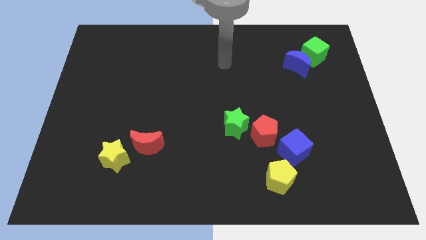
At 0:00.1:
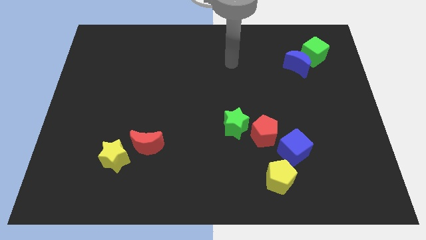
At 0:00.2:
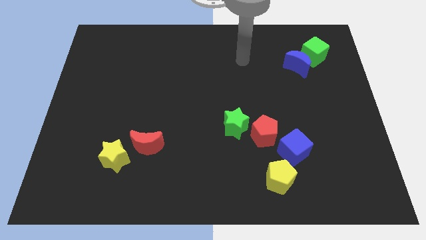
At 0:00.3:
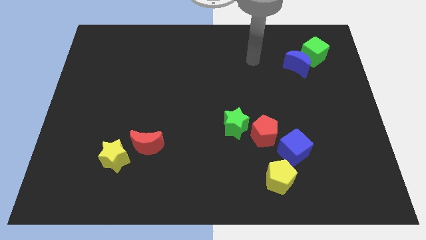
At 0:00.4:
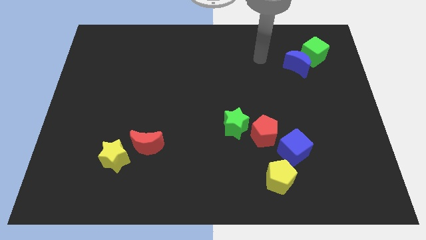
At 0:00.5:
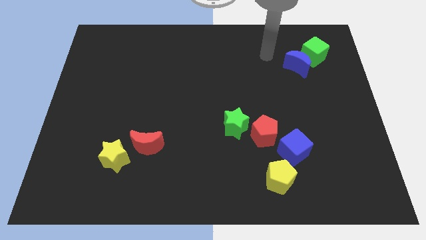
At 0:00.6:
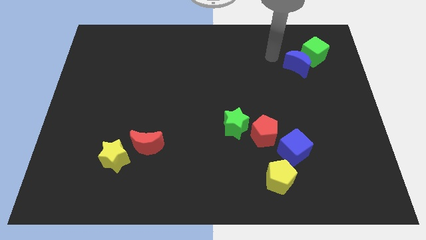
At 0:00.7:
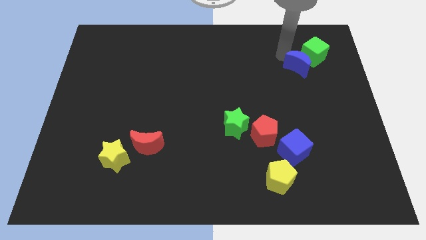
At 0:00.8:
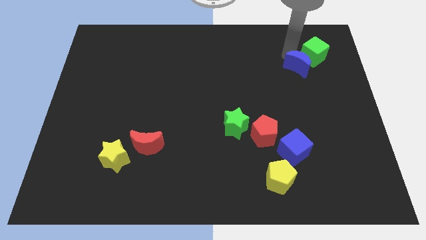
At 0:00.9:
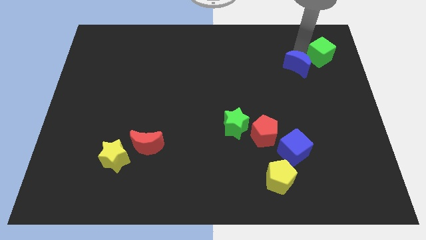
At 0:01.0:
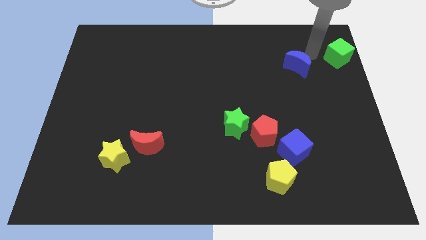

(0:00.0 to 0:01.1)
pull the blue moon apart from the green cube

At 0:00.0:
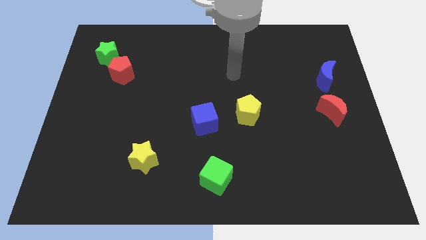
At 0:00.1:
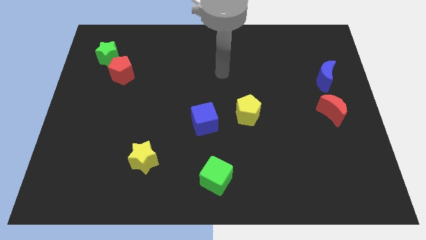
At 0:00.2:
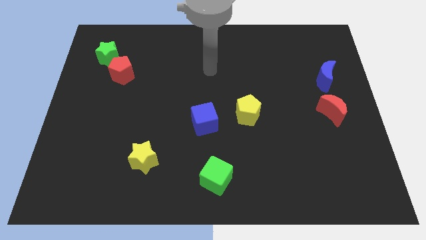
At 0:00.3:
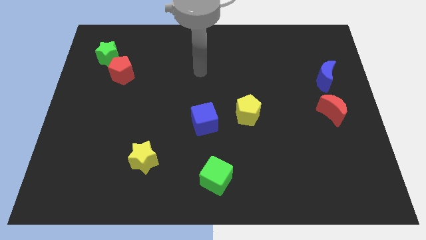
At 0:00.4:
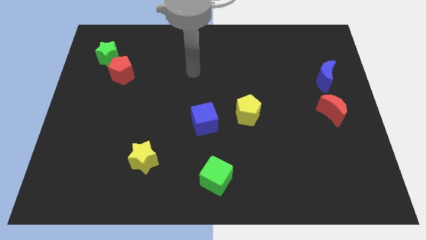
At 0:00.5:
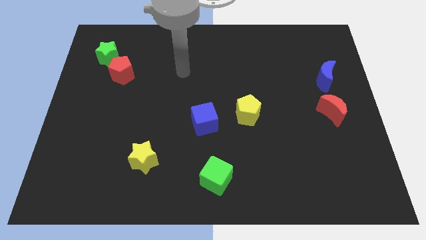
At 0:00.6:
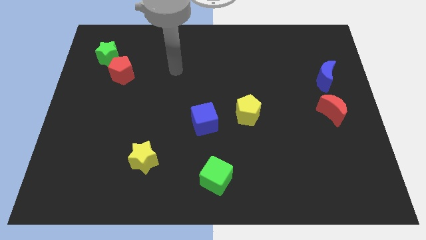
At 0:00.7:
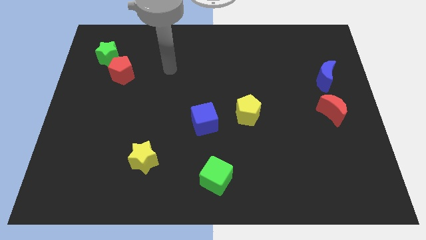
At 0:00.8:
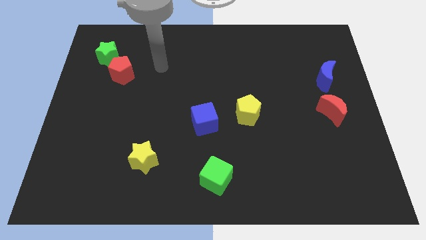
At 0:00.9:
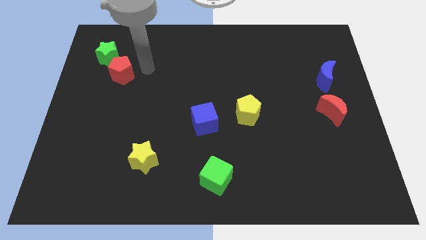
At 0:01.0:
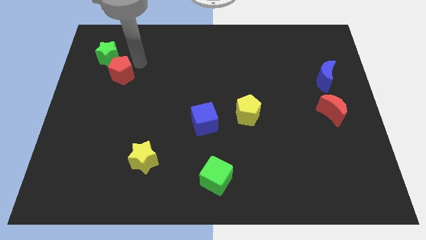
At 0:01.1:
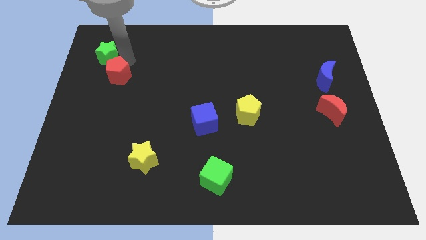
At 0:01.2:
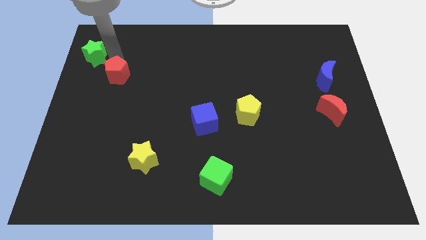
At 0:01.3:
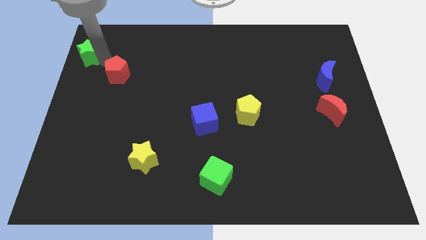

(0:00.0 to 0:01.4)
pull the red pentagon apart from the green star

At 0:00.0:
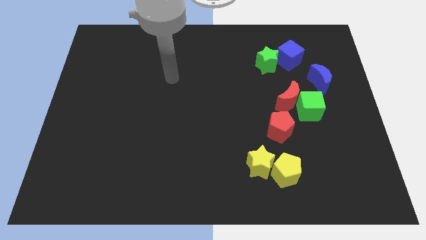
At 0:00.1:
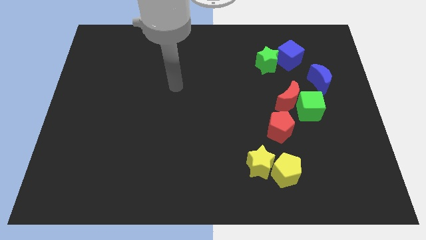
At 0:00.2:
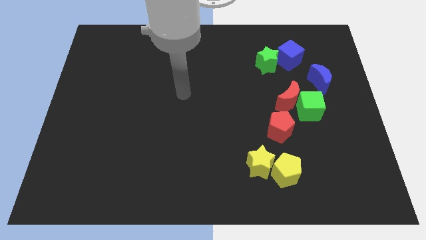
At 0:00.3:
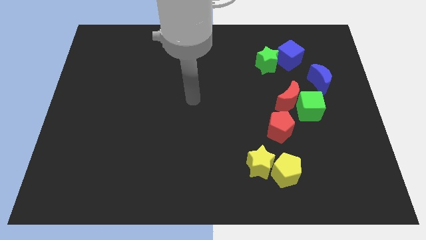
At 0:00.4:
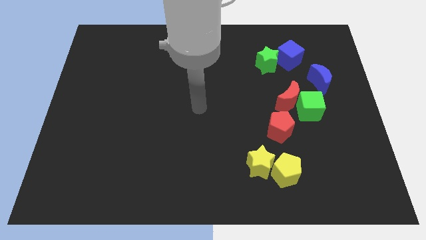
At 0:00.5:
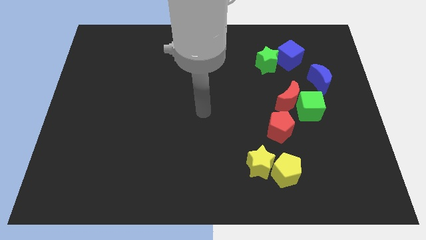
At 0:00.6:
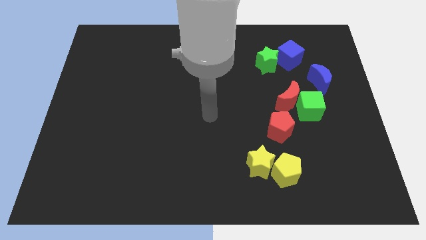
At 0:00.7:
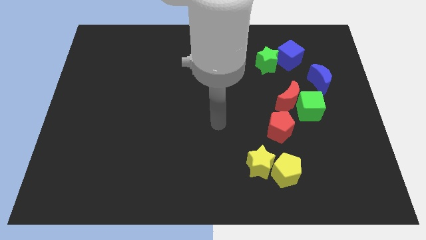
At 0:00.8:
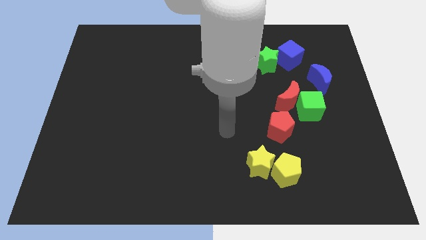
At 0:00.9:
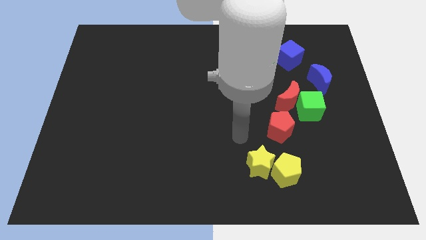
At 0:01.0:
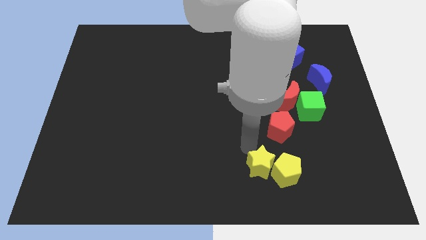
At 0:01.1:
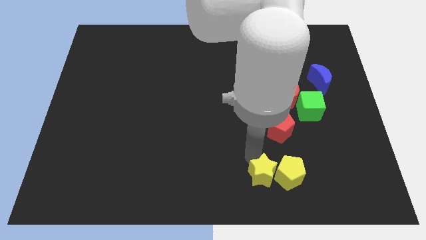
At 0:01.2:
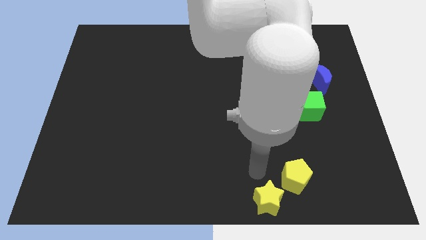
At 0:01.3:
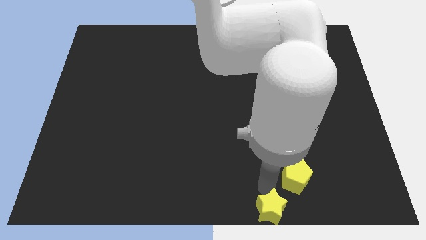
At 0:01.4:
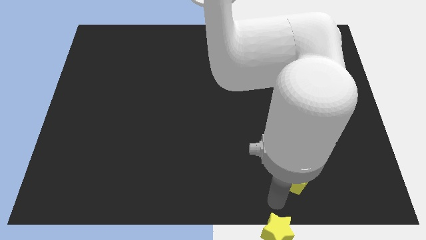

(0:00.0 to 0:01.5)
pull the yellow pentagon apart from the yellow star

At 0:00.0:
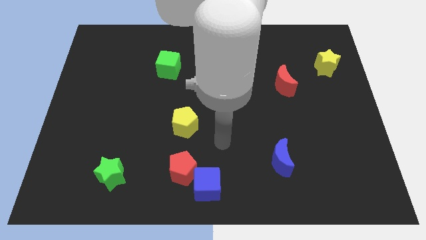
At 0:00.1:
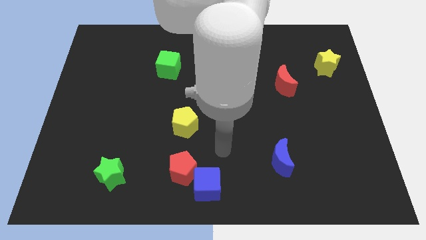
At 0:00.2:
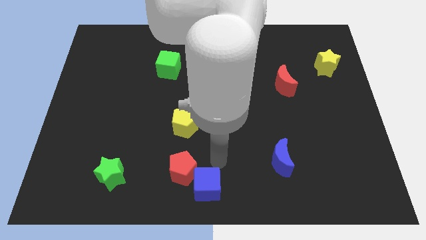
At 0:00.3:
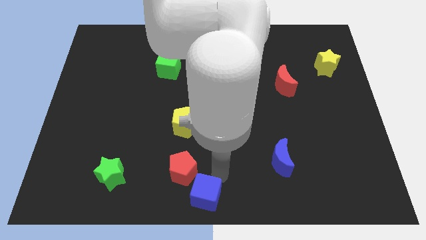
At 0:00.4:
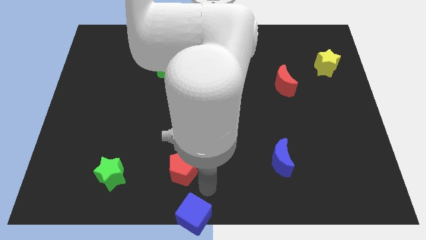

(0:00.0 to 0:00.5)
move the red pentagon away from the blue cube

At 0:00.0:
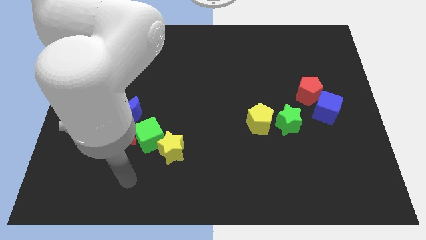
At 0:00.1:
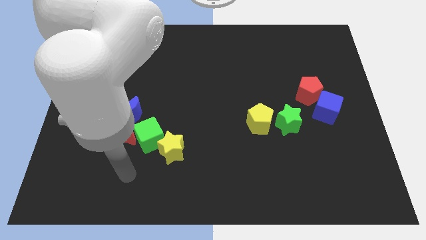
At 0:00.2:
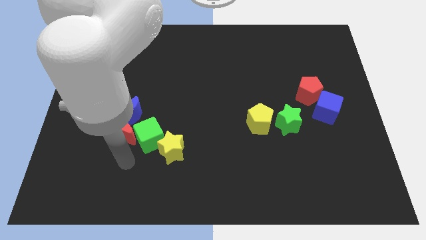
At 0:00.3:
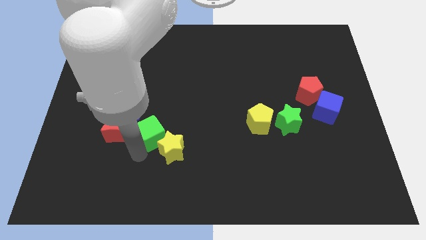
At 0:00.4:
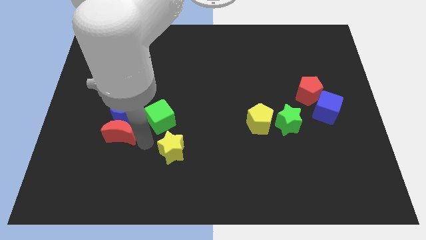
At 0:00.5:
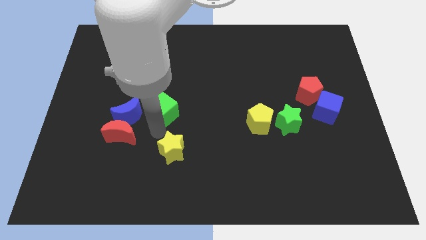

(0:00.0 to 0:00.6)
pull the yellow star apart from the green cube

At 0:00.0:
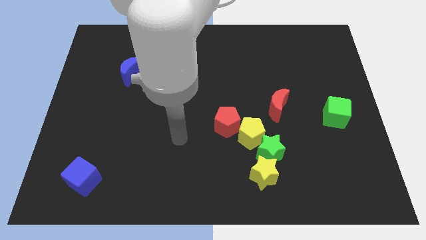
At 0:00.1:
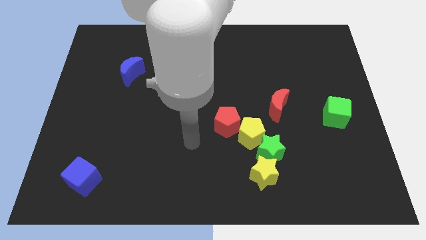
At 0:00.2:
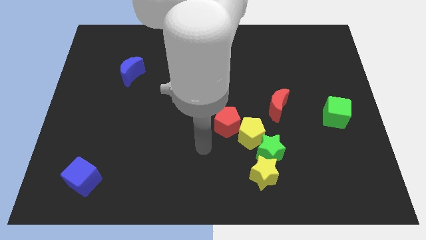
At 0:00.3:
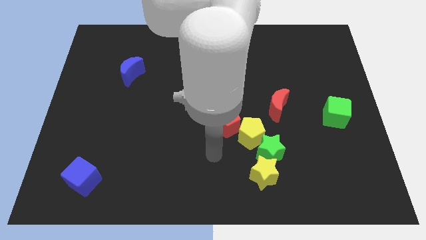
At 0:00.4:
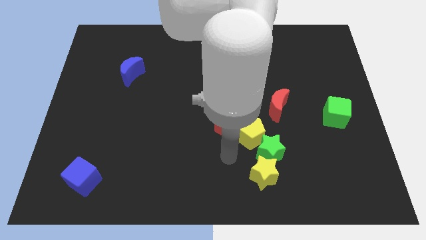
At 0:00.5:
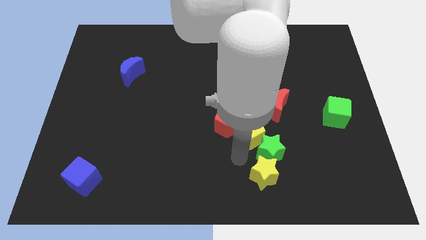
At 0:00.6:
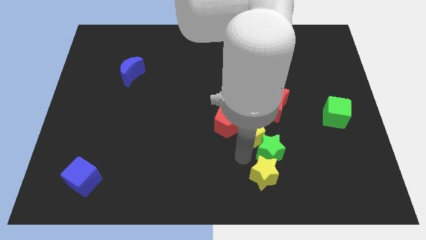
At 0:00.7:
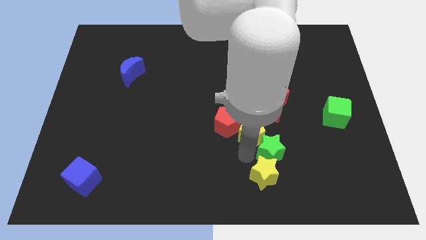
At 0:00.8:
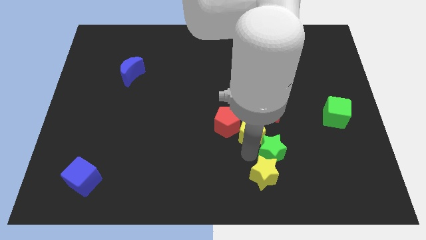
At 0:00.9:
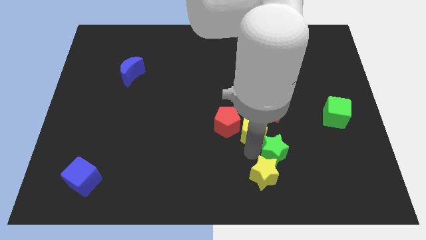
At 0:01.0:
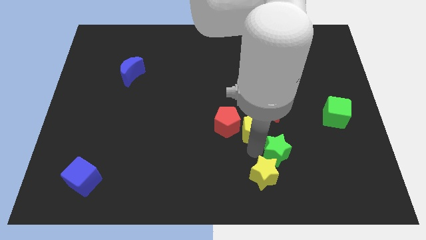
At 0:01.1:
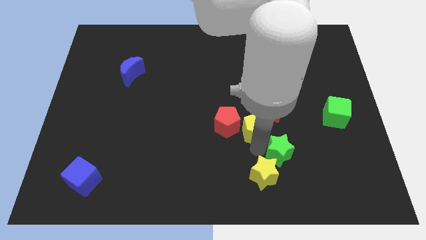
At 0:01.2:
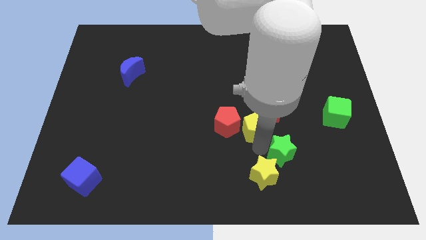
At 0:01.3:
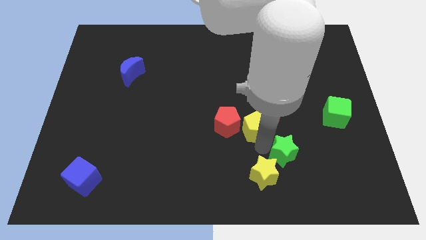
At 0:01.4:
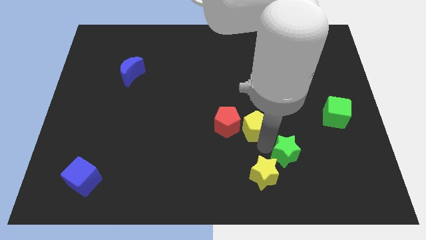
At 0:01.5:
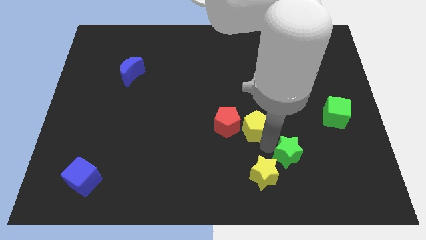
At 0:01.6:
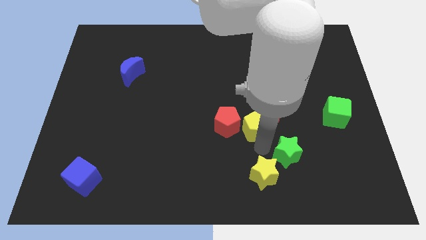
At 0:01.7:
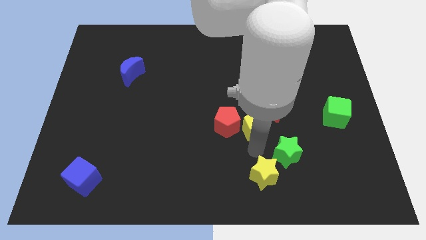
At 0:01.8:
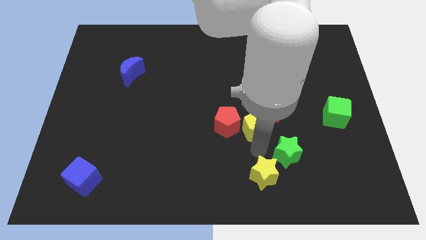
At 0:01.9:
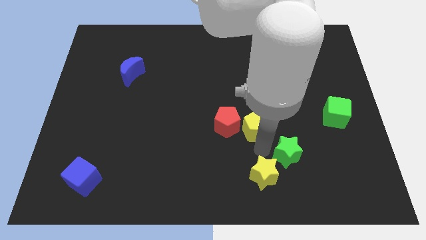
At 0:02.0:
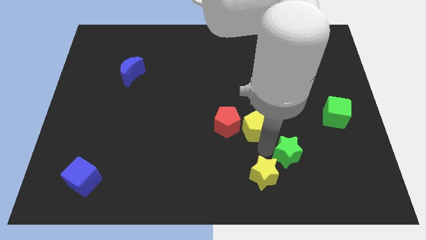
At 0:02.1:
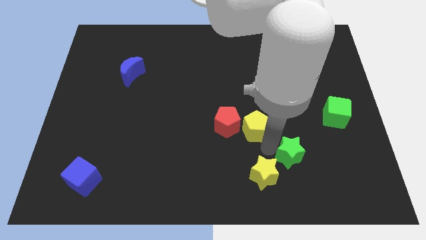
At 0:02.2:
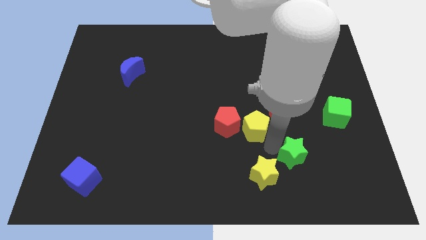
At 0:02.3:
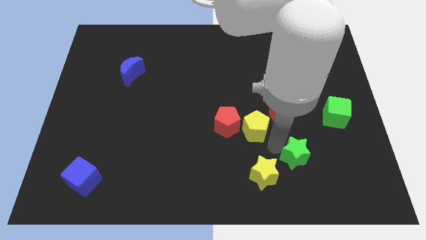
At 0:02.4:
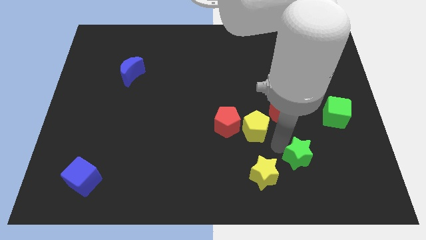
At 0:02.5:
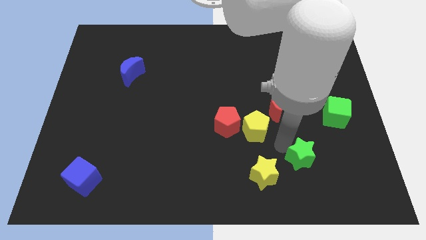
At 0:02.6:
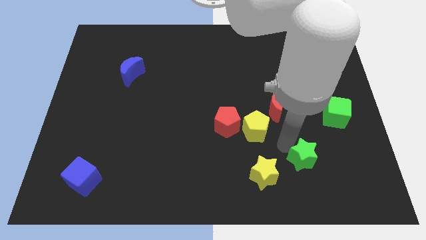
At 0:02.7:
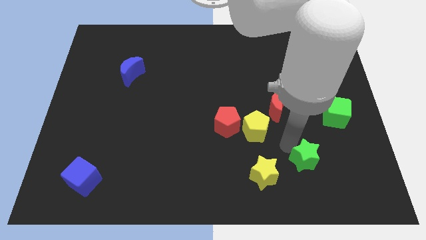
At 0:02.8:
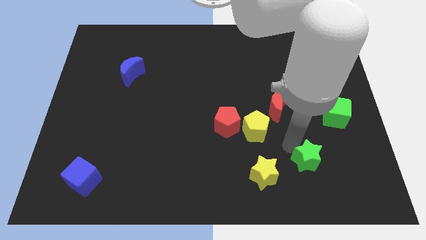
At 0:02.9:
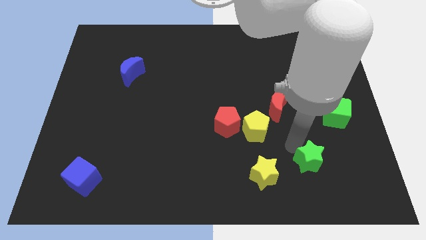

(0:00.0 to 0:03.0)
pull the green star apart from the yellow pentagon and yellow star

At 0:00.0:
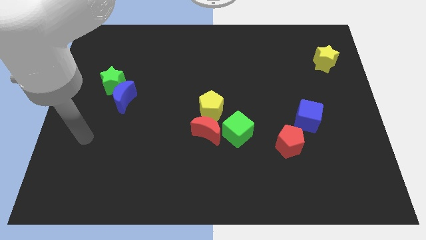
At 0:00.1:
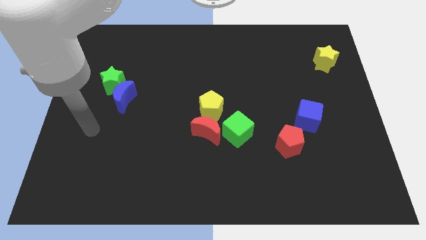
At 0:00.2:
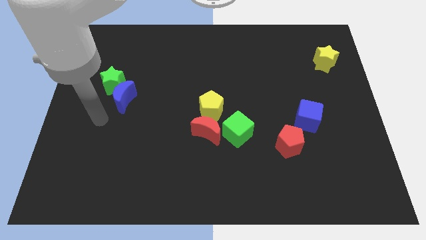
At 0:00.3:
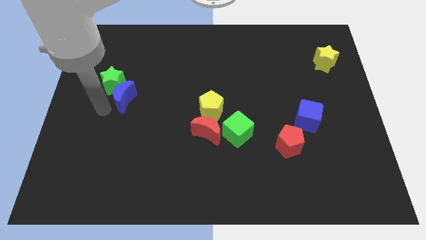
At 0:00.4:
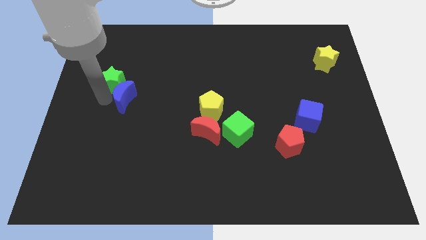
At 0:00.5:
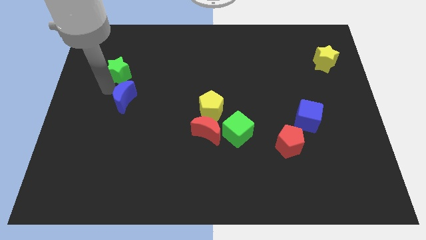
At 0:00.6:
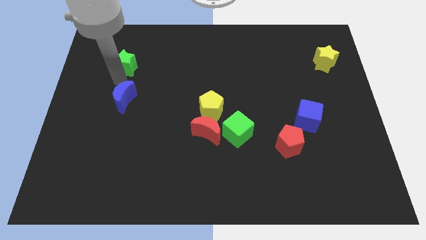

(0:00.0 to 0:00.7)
move the blue moon away from the green star

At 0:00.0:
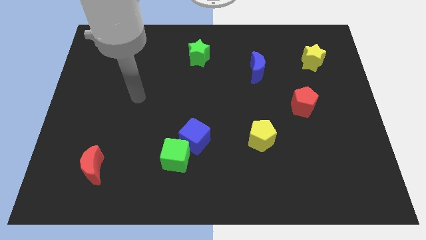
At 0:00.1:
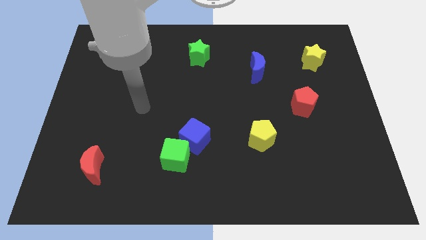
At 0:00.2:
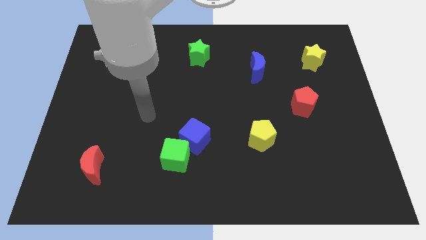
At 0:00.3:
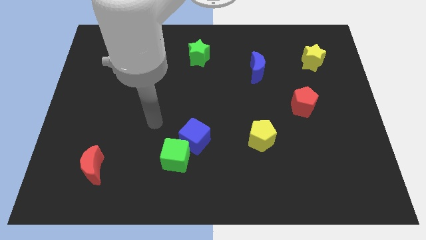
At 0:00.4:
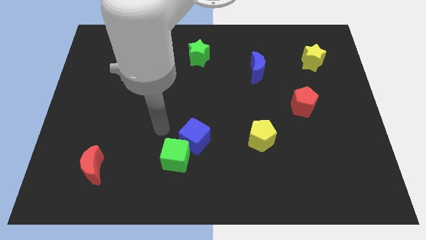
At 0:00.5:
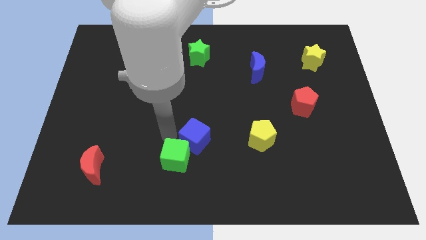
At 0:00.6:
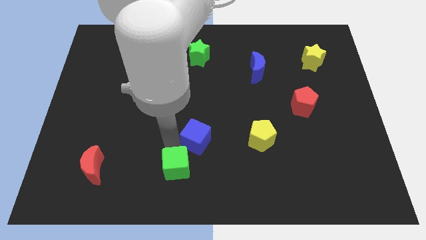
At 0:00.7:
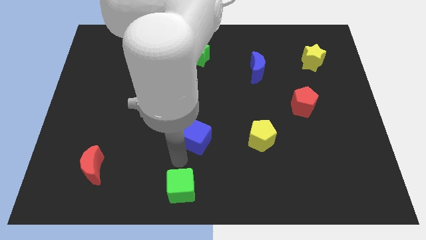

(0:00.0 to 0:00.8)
separate the blue cube from the green cube
